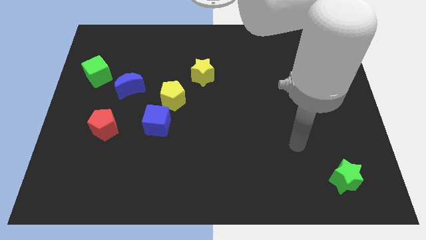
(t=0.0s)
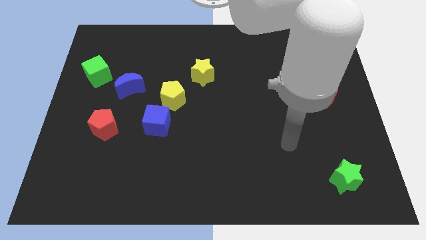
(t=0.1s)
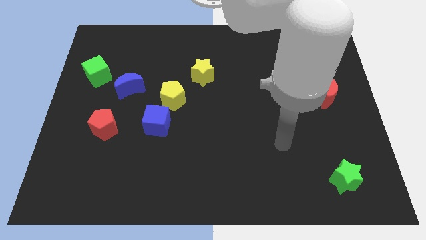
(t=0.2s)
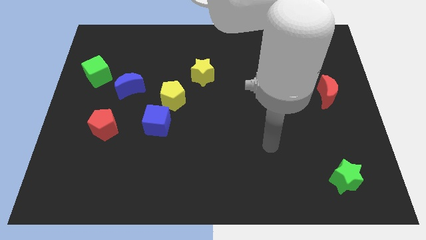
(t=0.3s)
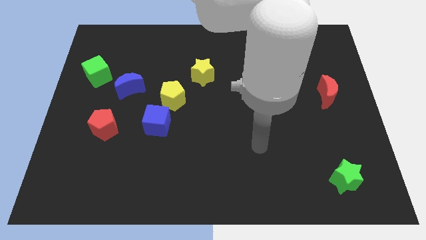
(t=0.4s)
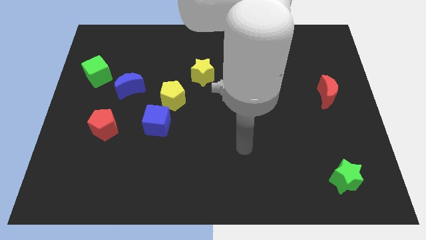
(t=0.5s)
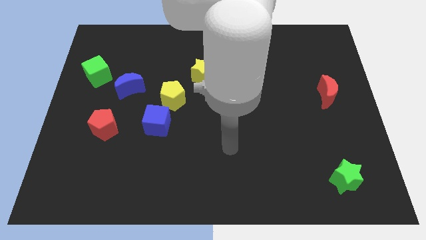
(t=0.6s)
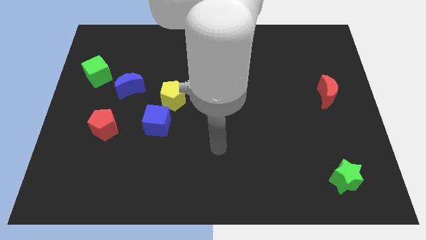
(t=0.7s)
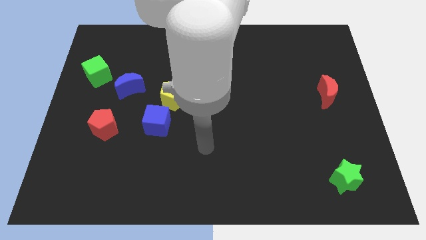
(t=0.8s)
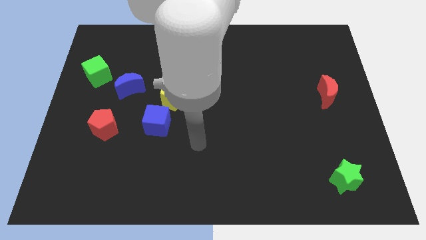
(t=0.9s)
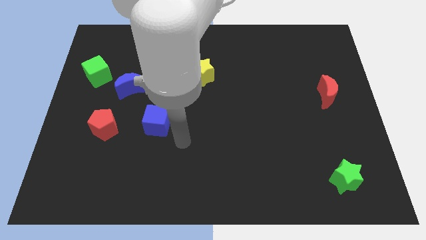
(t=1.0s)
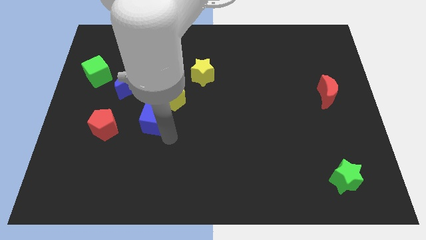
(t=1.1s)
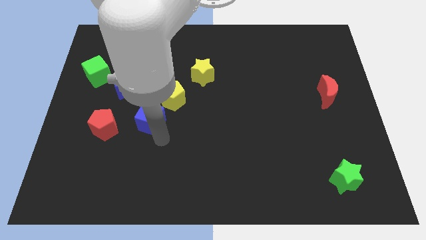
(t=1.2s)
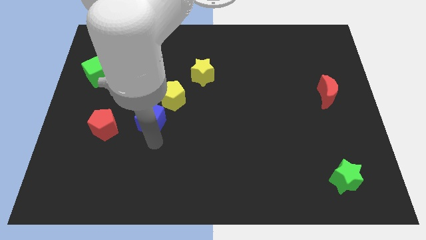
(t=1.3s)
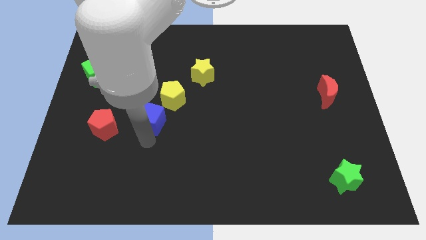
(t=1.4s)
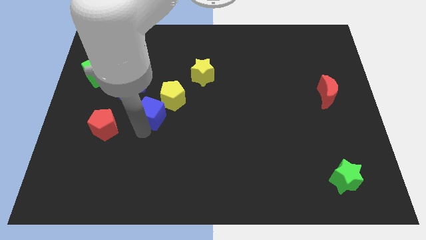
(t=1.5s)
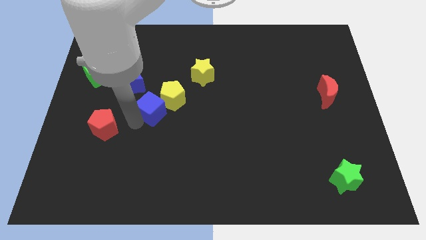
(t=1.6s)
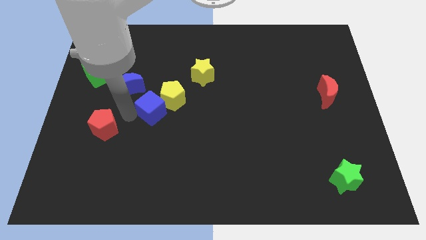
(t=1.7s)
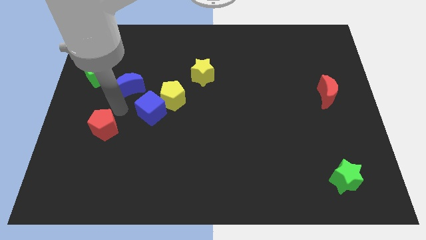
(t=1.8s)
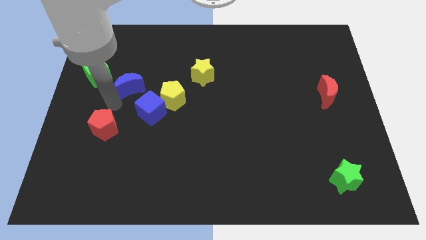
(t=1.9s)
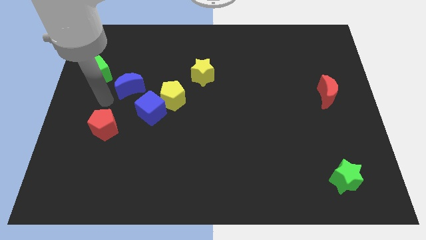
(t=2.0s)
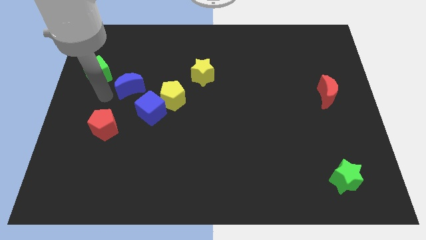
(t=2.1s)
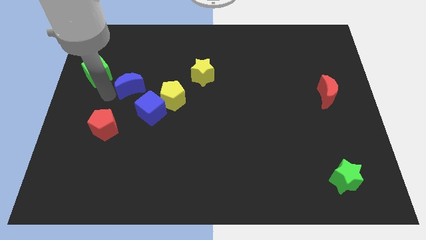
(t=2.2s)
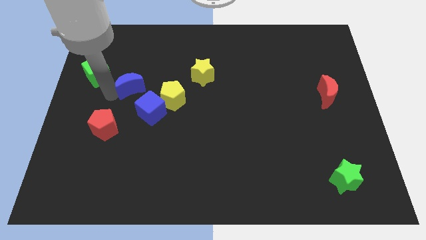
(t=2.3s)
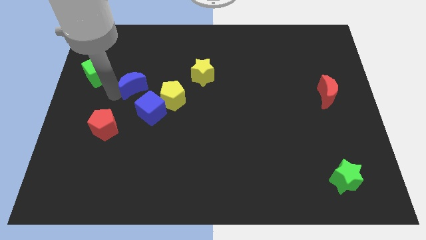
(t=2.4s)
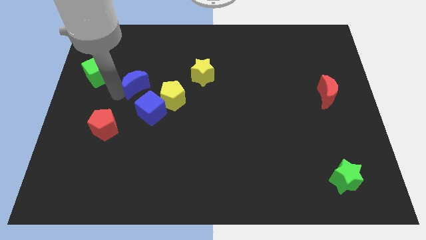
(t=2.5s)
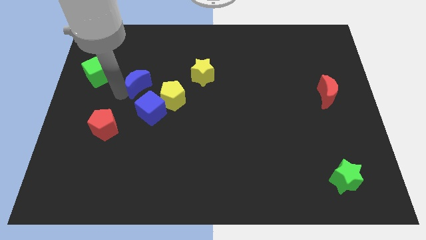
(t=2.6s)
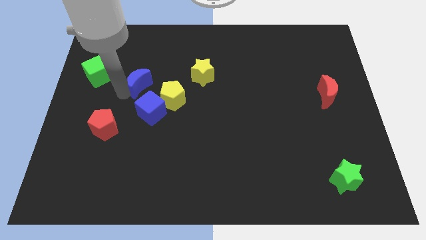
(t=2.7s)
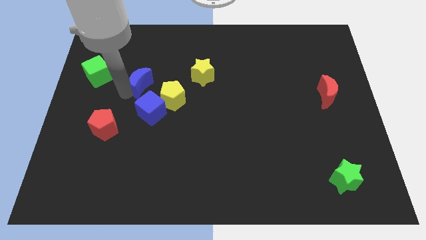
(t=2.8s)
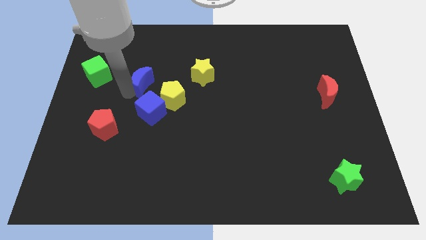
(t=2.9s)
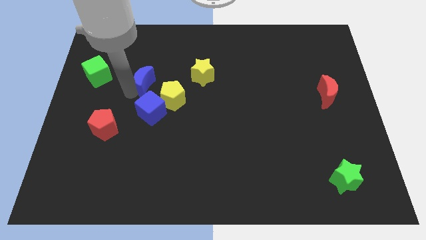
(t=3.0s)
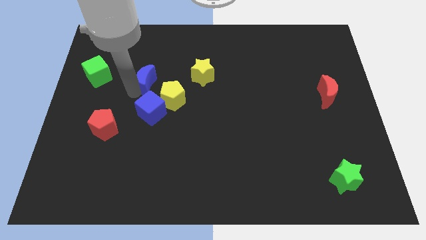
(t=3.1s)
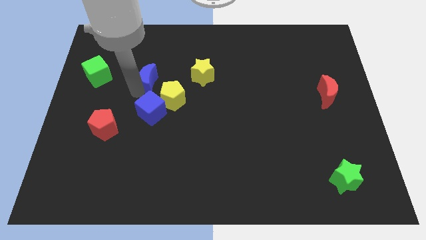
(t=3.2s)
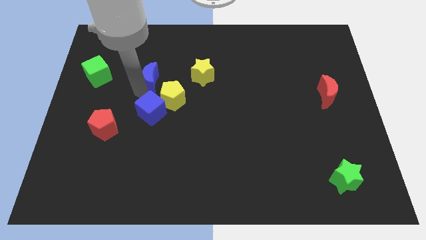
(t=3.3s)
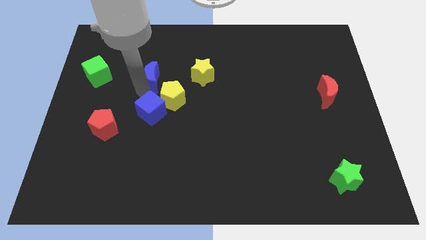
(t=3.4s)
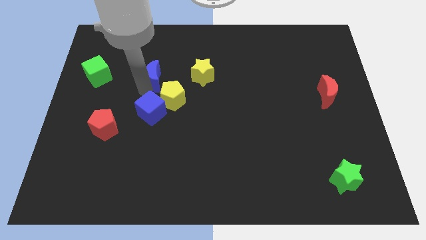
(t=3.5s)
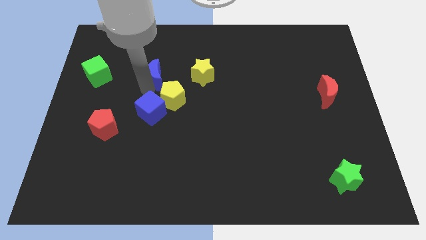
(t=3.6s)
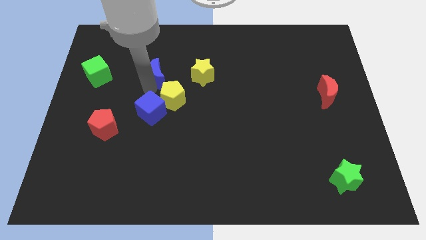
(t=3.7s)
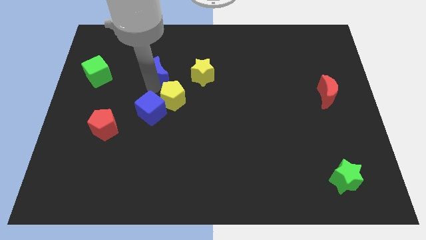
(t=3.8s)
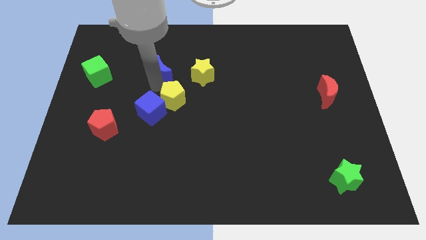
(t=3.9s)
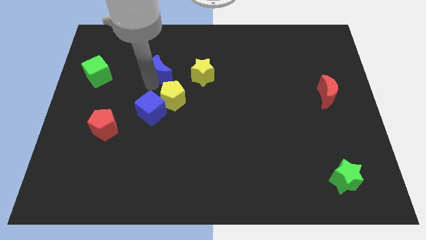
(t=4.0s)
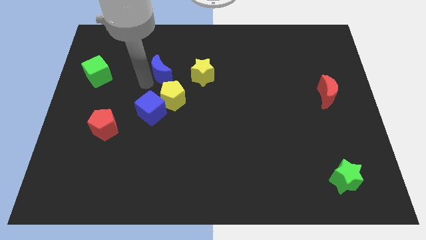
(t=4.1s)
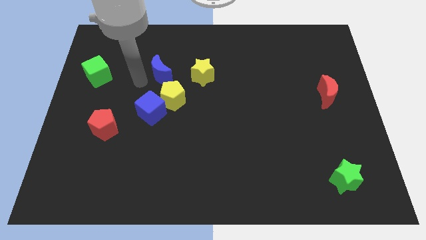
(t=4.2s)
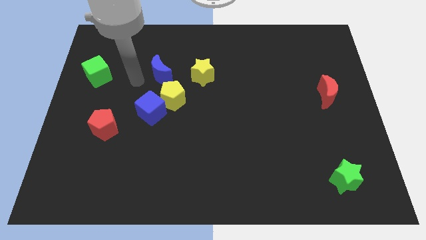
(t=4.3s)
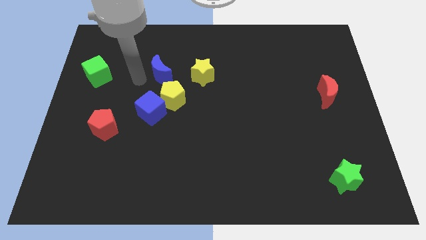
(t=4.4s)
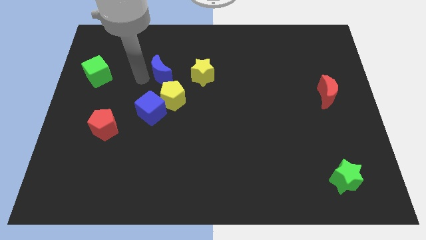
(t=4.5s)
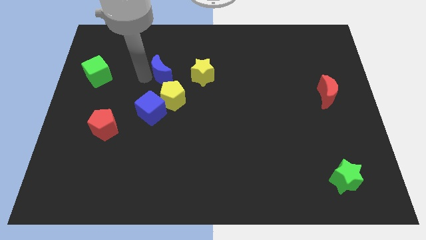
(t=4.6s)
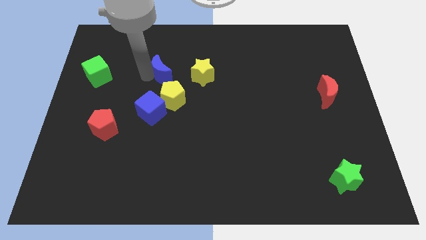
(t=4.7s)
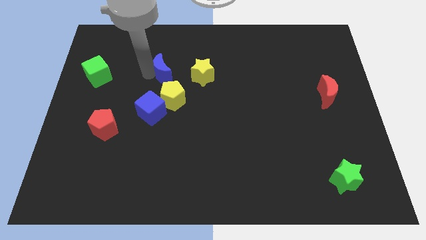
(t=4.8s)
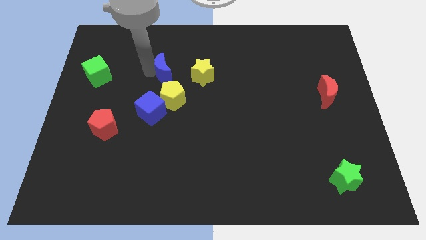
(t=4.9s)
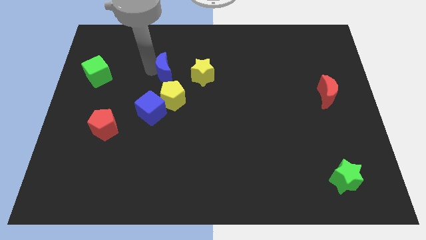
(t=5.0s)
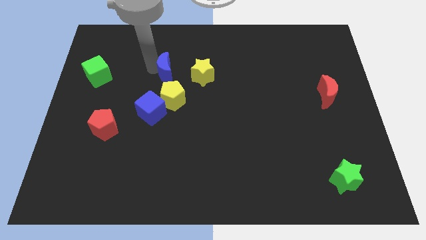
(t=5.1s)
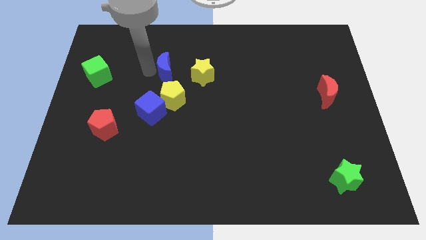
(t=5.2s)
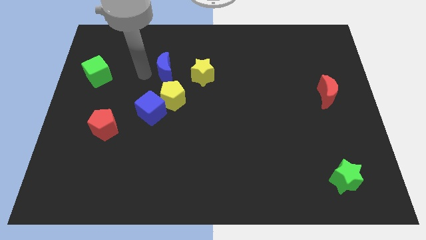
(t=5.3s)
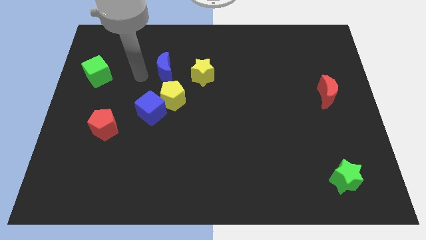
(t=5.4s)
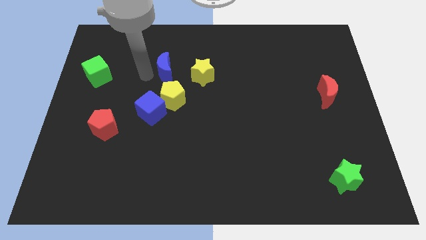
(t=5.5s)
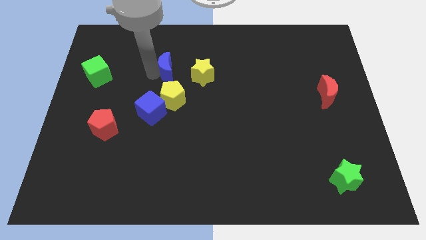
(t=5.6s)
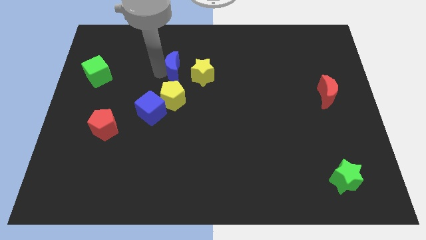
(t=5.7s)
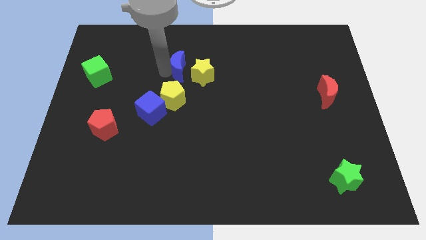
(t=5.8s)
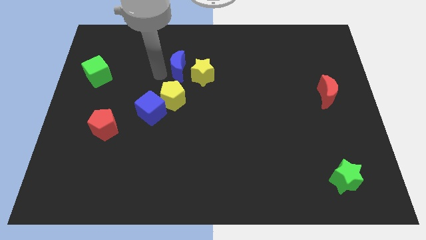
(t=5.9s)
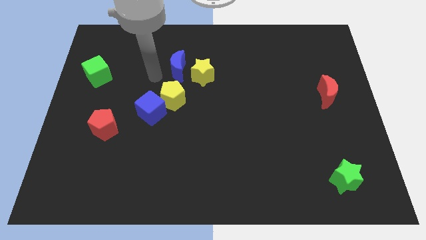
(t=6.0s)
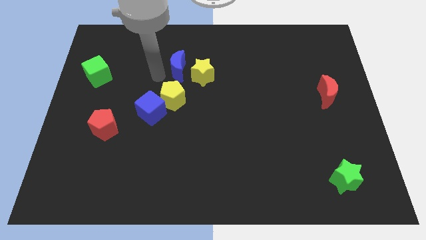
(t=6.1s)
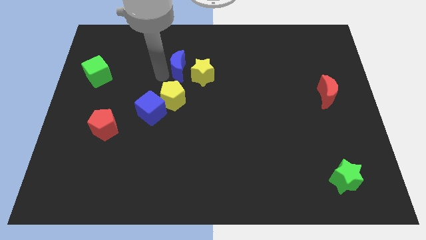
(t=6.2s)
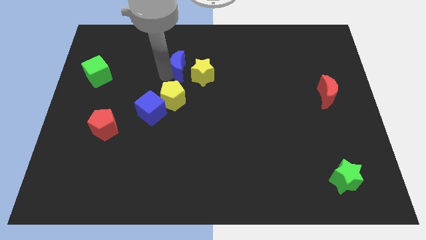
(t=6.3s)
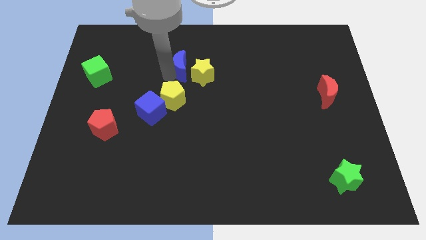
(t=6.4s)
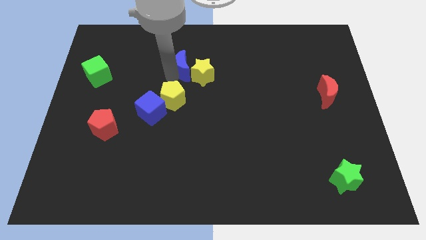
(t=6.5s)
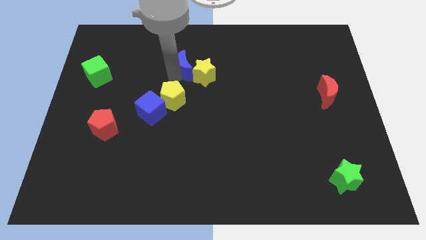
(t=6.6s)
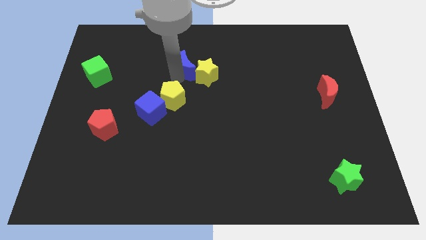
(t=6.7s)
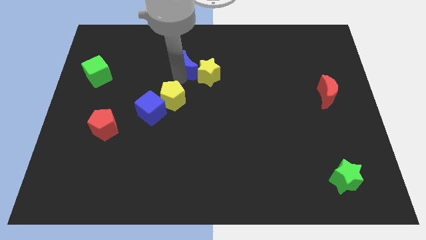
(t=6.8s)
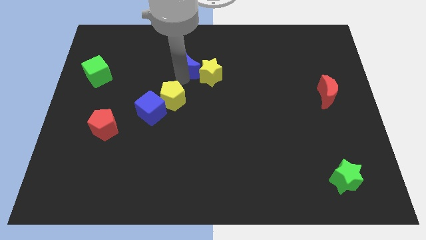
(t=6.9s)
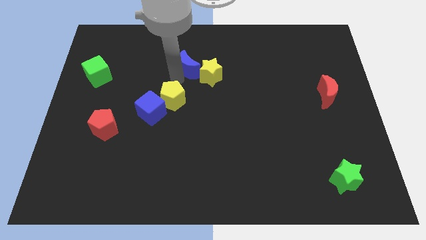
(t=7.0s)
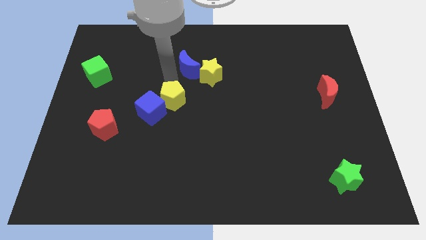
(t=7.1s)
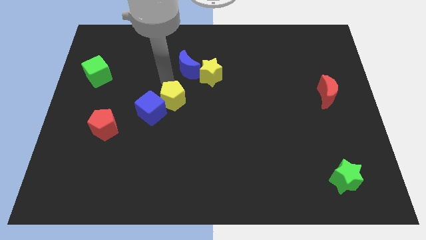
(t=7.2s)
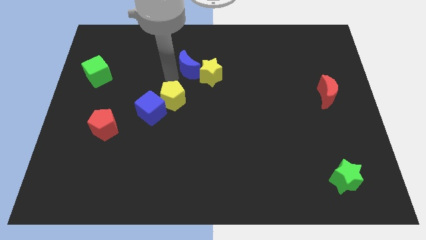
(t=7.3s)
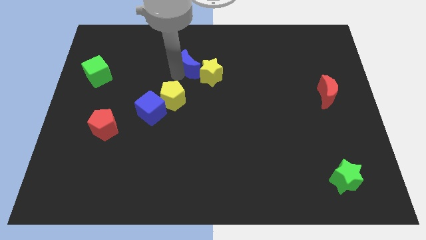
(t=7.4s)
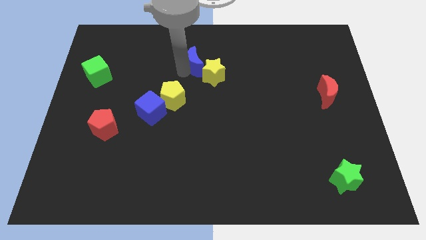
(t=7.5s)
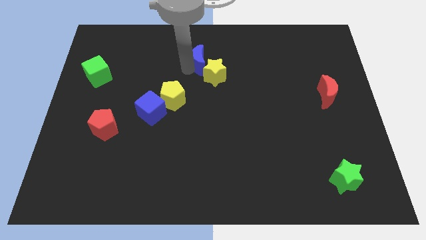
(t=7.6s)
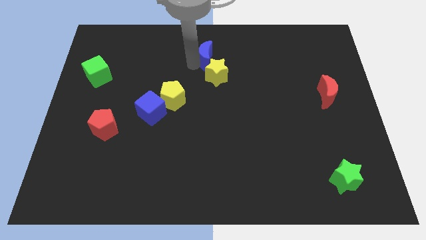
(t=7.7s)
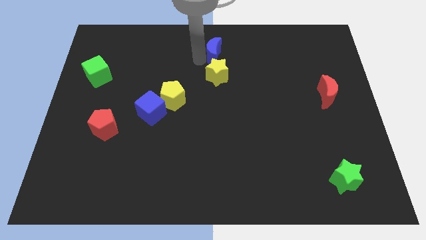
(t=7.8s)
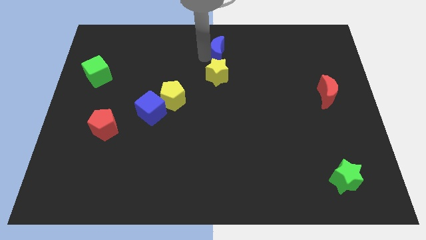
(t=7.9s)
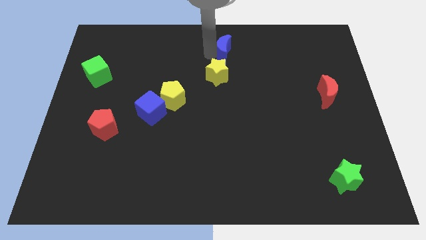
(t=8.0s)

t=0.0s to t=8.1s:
put the blue moon diagonally up and to the right of the yellow star
